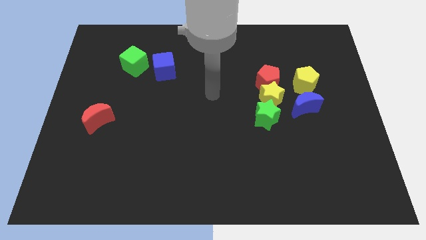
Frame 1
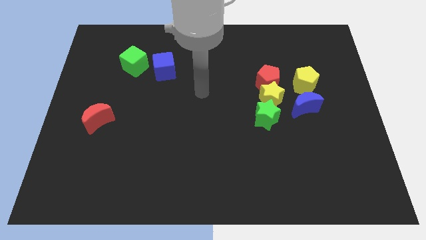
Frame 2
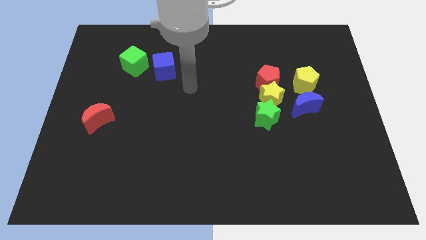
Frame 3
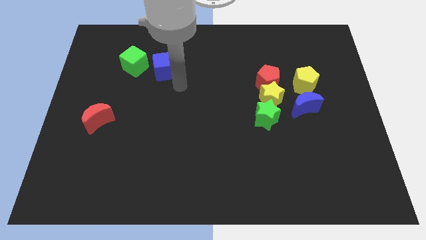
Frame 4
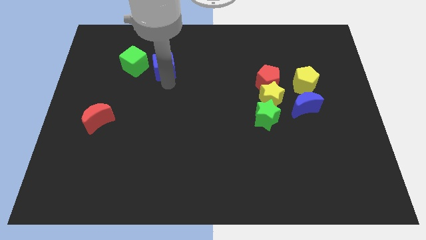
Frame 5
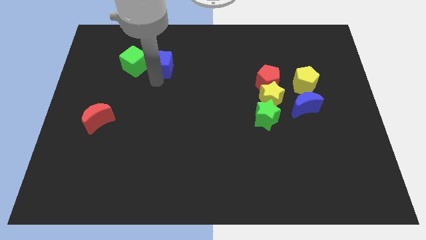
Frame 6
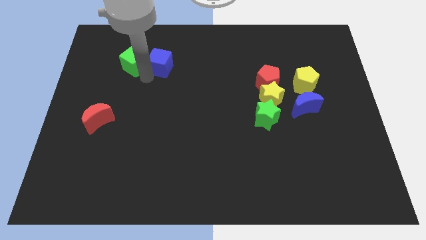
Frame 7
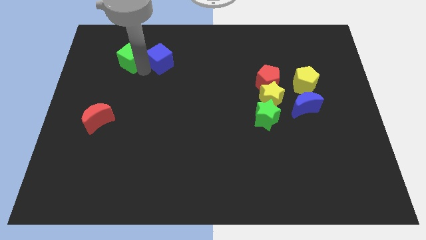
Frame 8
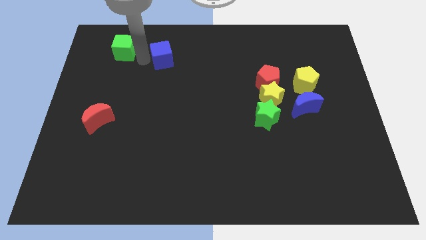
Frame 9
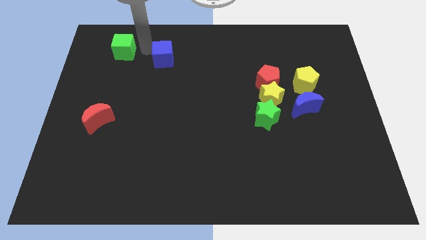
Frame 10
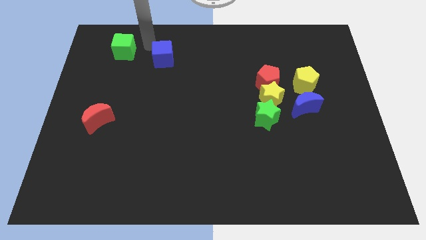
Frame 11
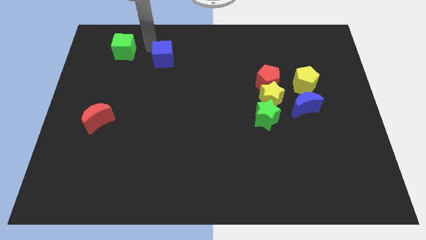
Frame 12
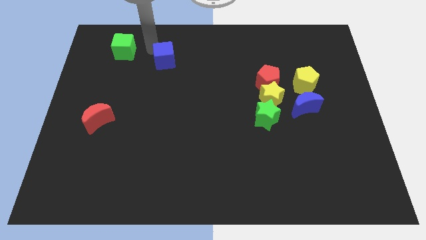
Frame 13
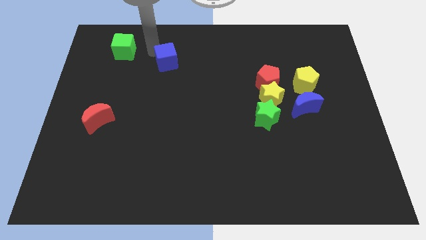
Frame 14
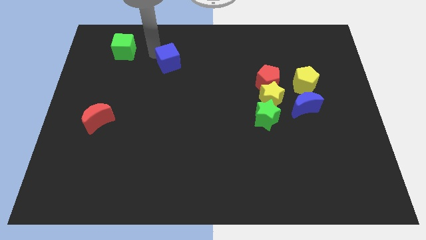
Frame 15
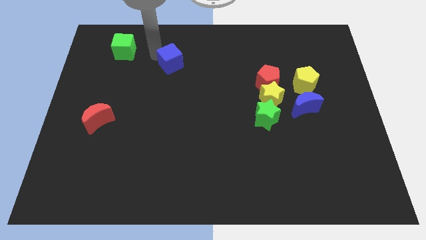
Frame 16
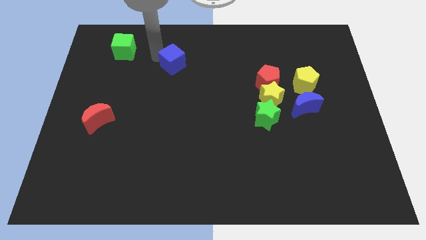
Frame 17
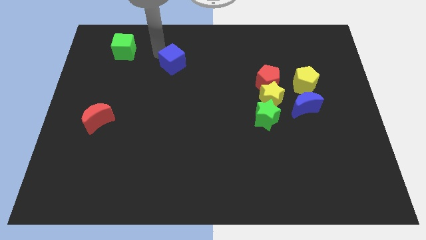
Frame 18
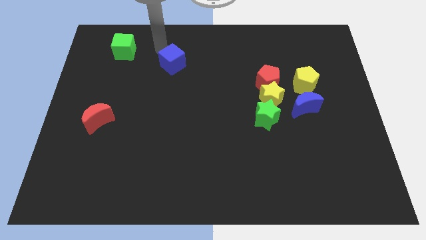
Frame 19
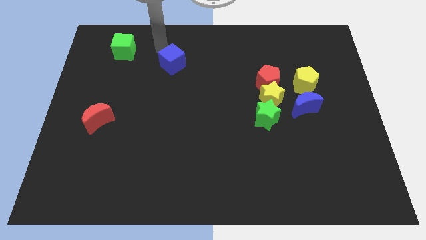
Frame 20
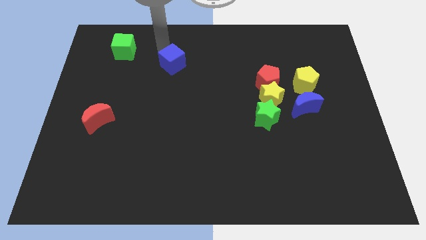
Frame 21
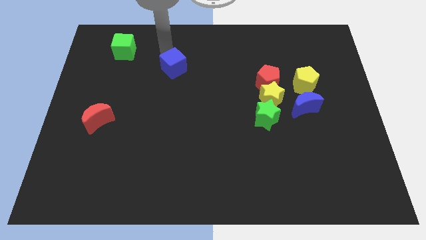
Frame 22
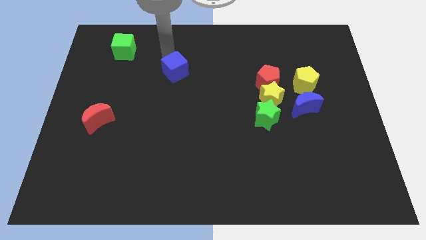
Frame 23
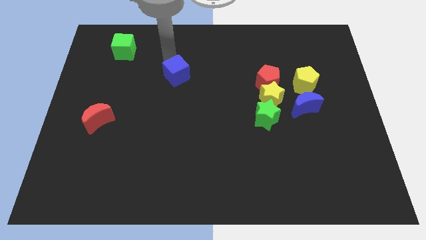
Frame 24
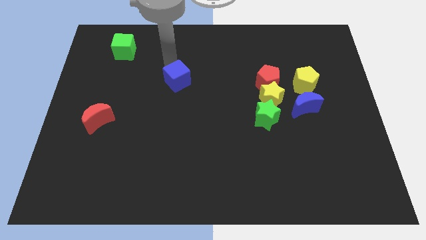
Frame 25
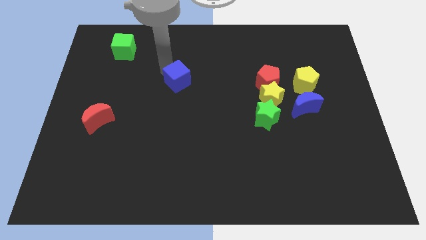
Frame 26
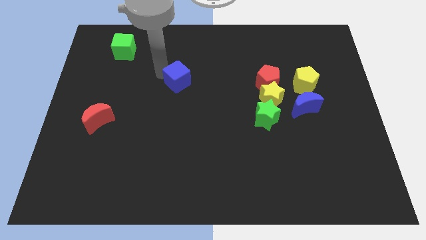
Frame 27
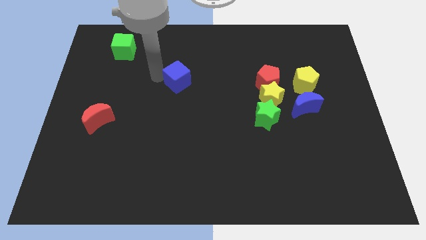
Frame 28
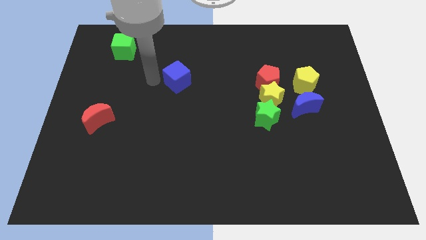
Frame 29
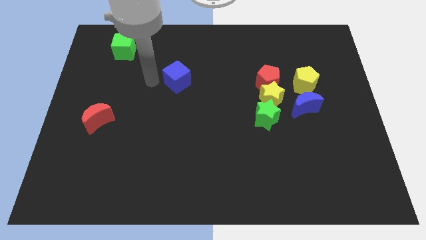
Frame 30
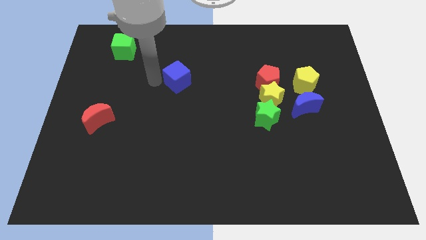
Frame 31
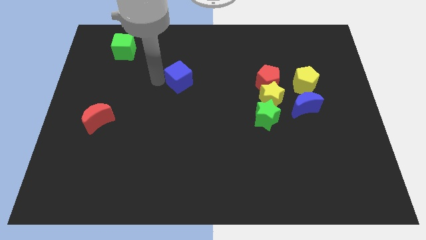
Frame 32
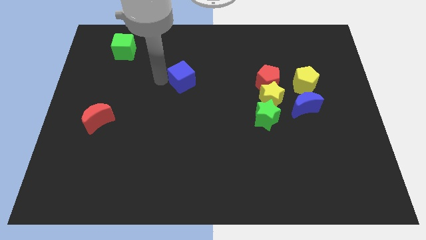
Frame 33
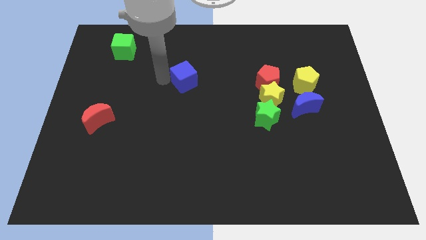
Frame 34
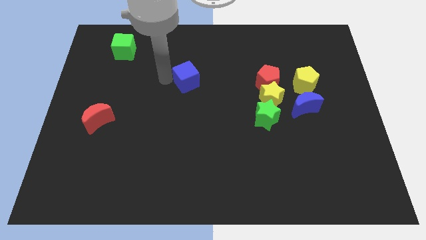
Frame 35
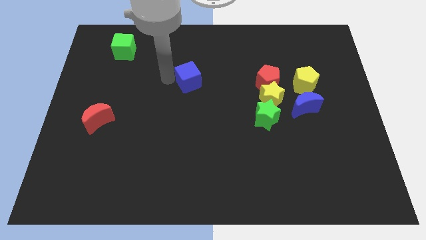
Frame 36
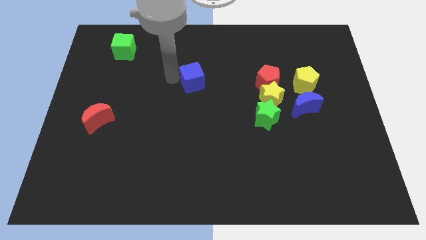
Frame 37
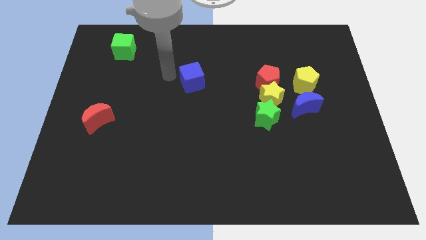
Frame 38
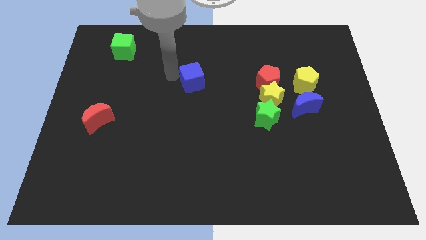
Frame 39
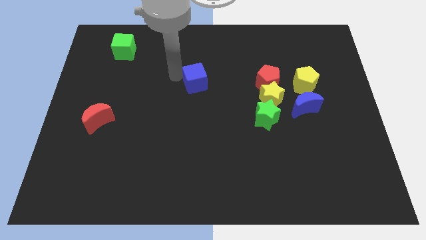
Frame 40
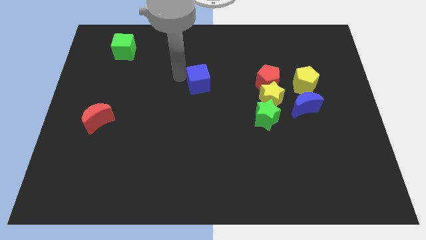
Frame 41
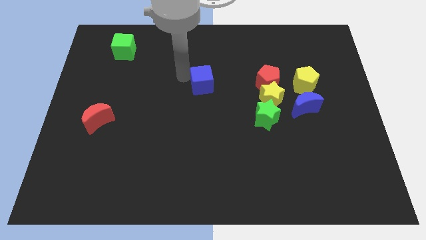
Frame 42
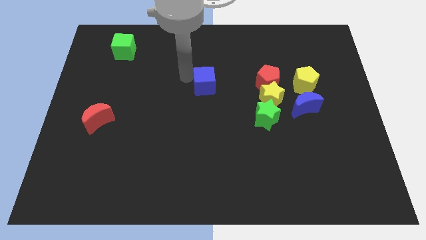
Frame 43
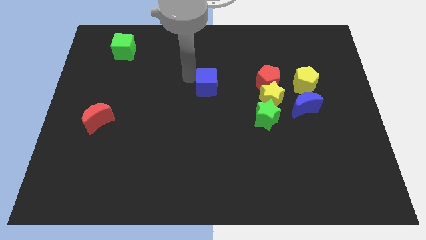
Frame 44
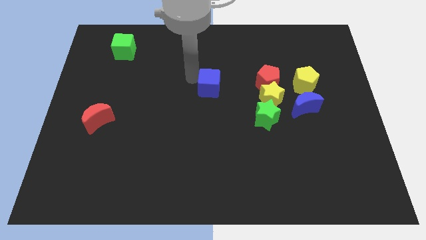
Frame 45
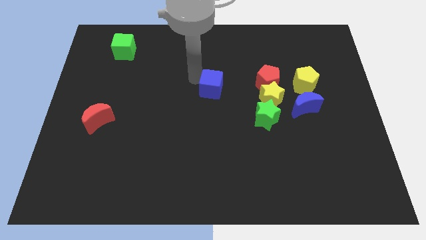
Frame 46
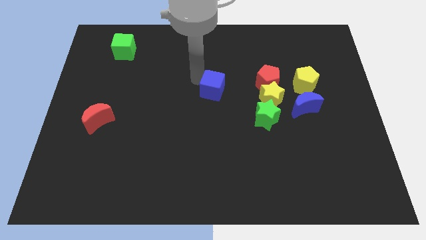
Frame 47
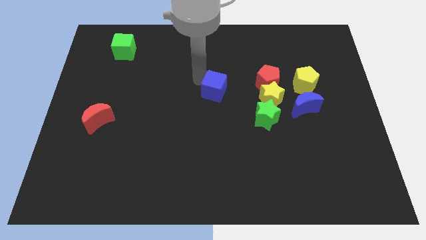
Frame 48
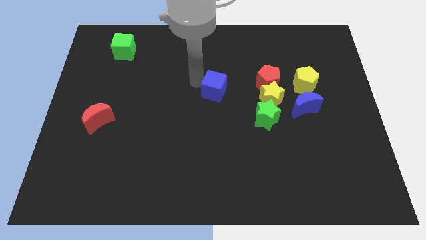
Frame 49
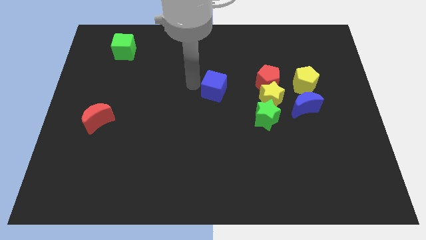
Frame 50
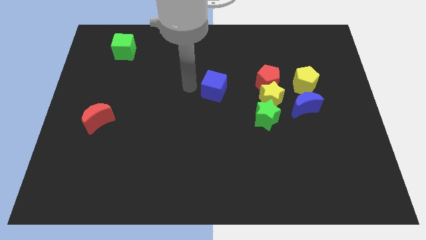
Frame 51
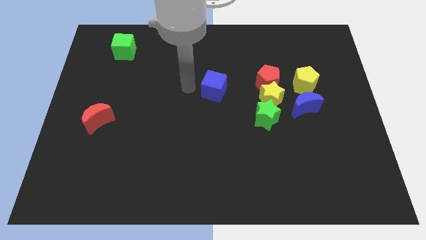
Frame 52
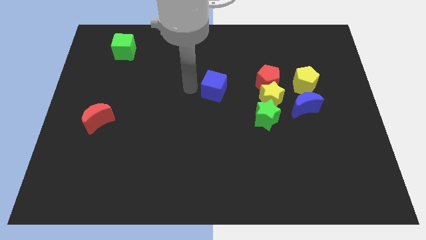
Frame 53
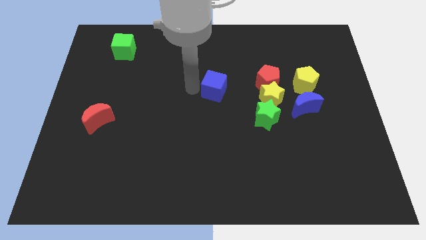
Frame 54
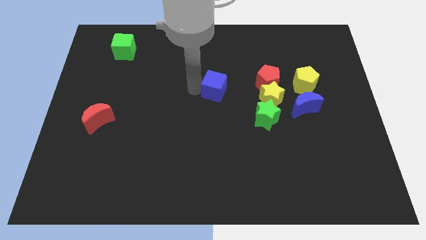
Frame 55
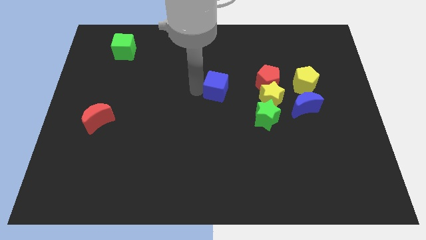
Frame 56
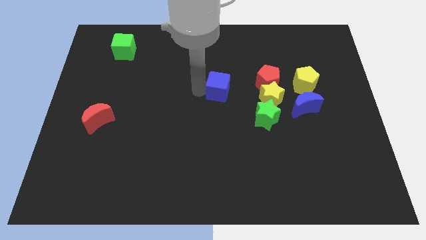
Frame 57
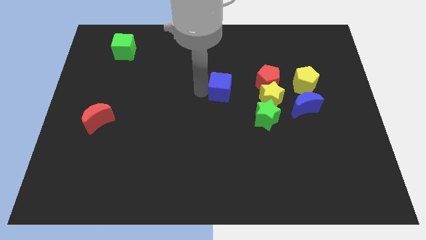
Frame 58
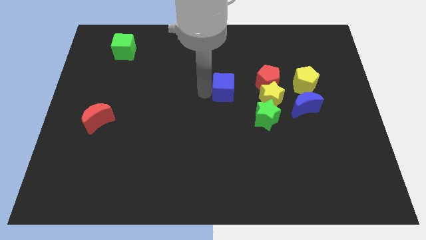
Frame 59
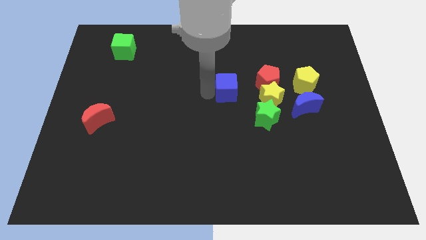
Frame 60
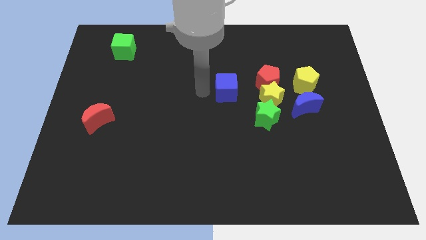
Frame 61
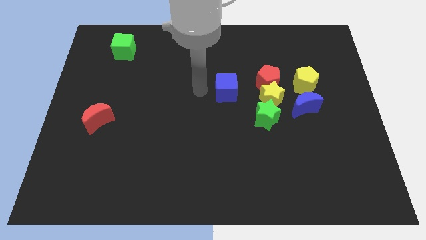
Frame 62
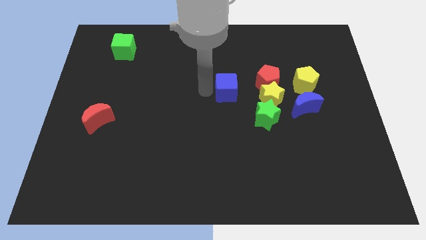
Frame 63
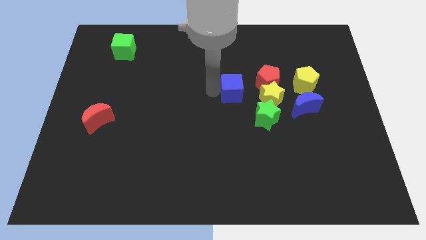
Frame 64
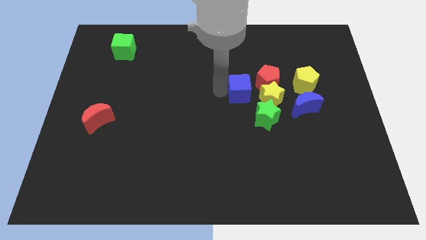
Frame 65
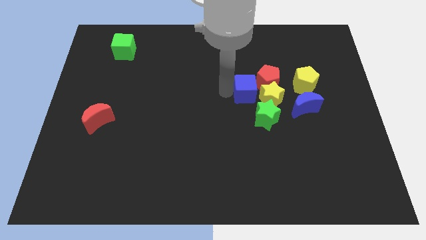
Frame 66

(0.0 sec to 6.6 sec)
put the blue cube close to the yellow star

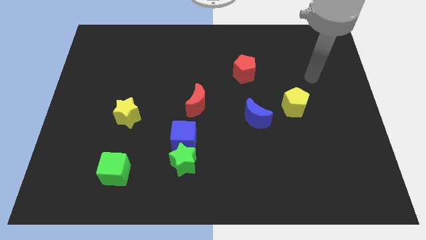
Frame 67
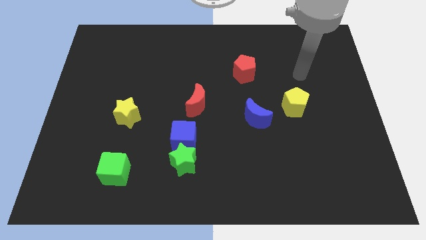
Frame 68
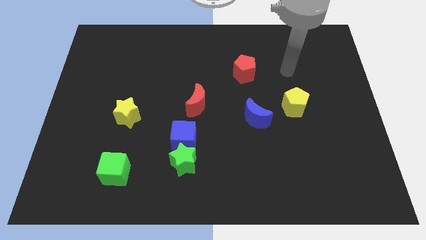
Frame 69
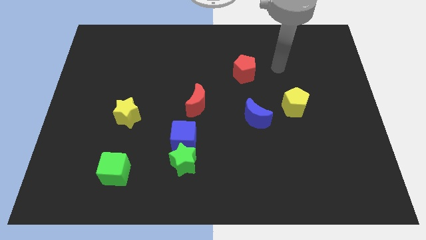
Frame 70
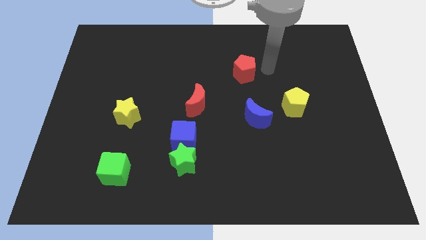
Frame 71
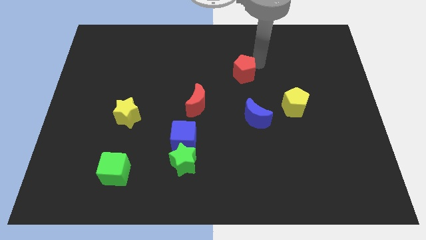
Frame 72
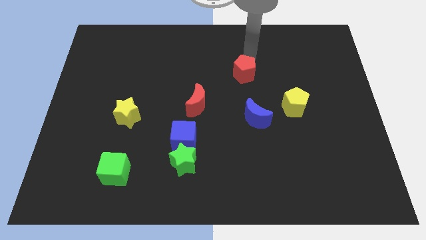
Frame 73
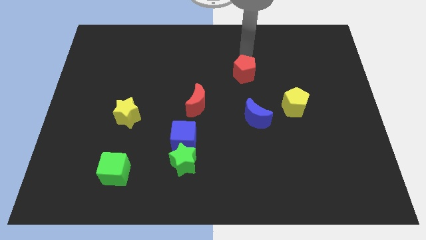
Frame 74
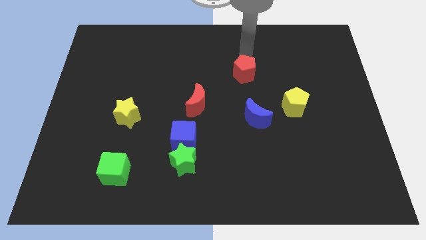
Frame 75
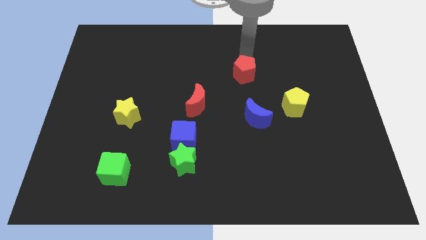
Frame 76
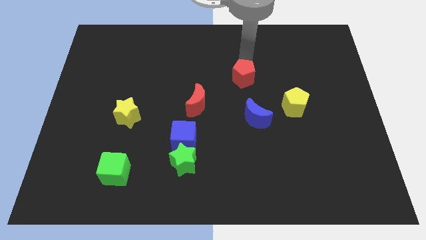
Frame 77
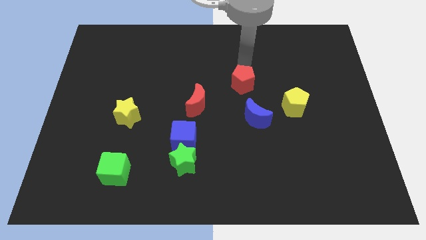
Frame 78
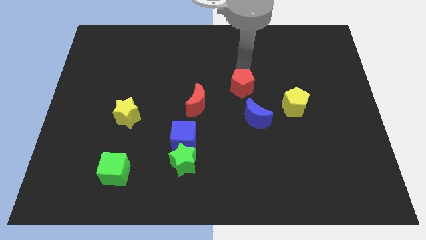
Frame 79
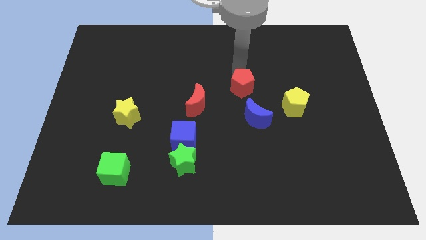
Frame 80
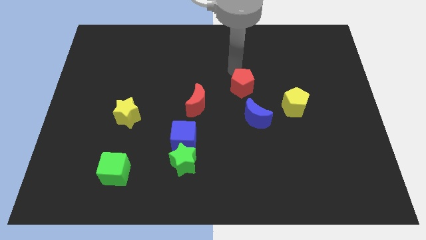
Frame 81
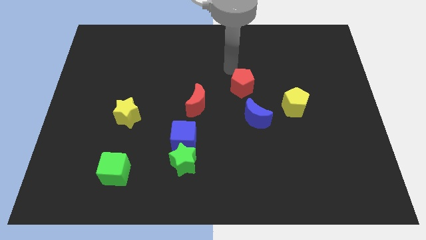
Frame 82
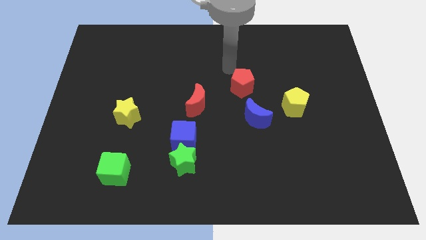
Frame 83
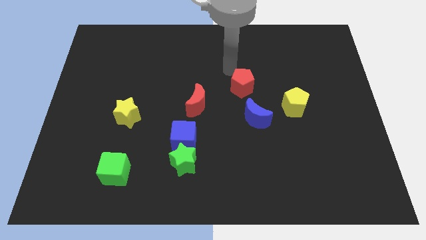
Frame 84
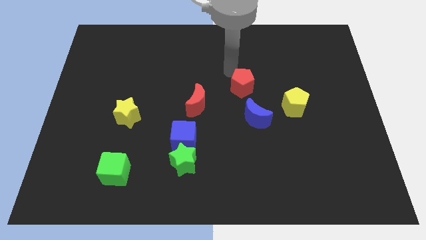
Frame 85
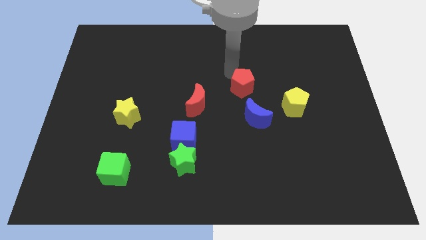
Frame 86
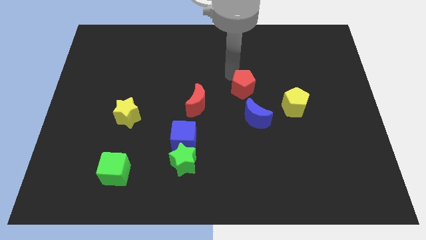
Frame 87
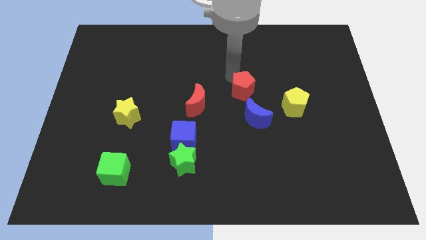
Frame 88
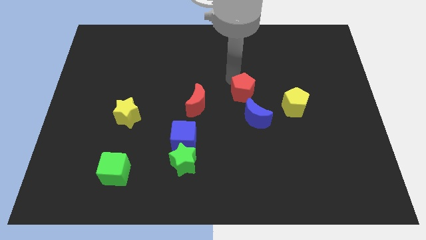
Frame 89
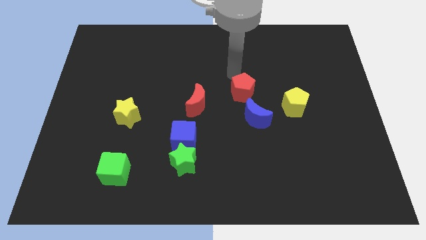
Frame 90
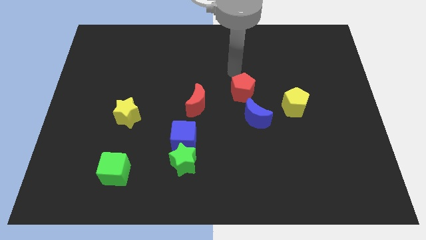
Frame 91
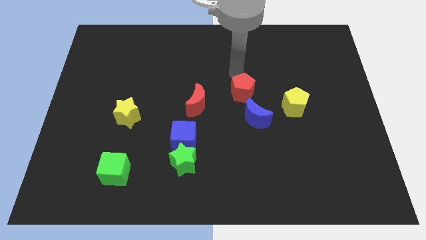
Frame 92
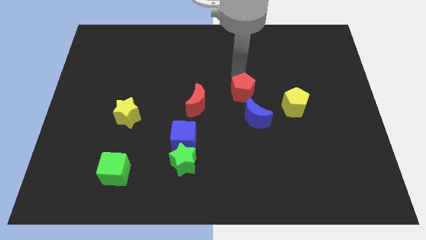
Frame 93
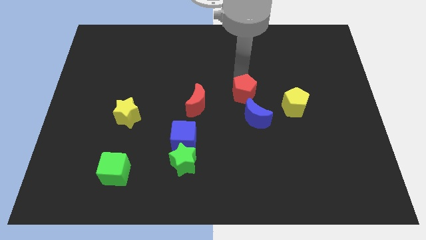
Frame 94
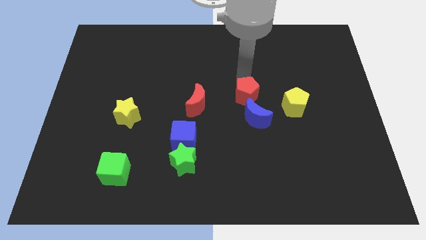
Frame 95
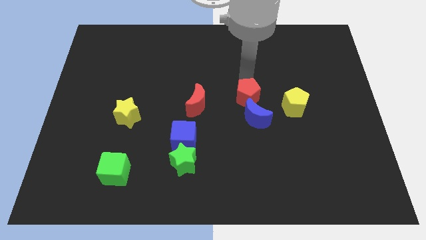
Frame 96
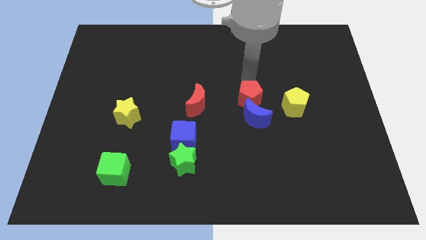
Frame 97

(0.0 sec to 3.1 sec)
slide the red pentagon close to the blue moon
